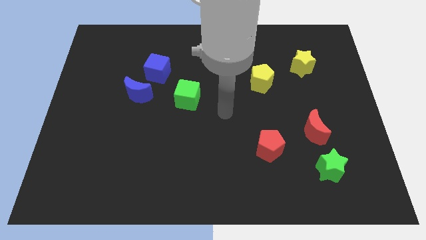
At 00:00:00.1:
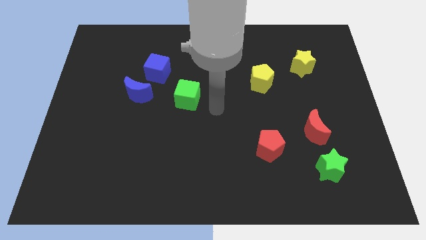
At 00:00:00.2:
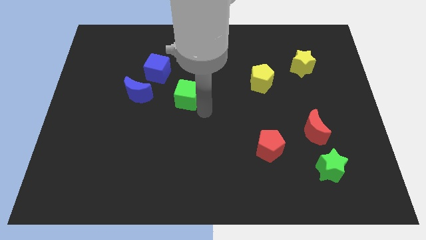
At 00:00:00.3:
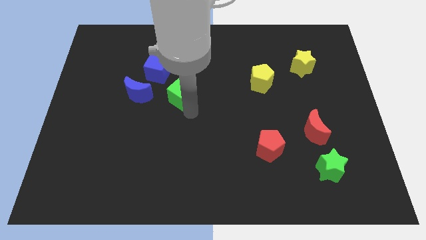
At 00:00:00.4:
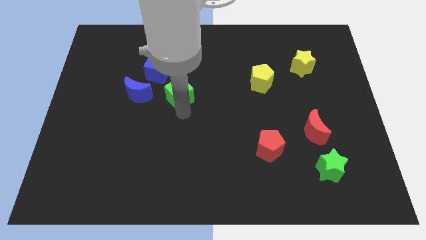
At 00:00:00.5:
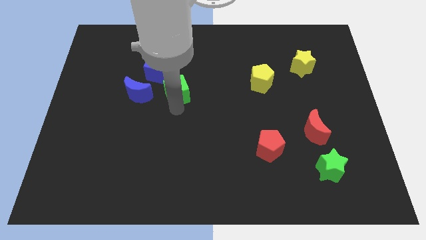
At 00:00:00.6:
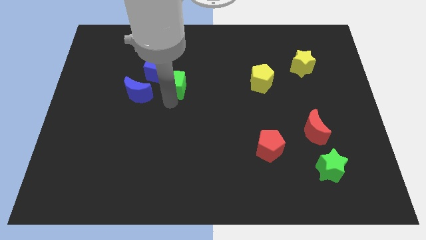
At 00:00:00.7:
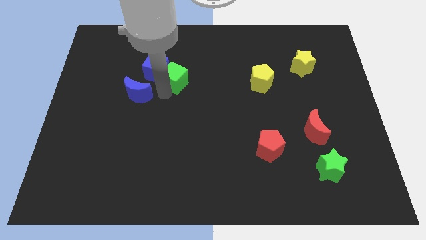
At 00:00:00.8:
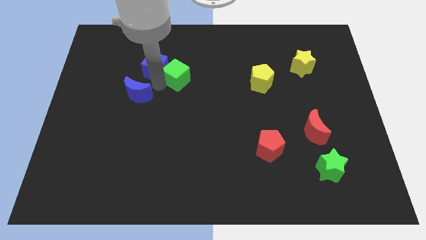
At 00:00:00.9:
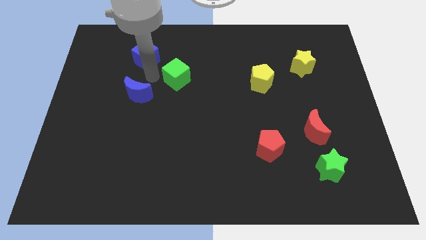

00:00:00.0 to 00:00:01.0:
move the blue moon away from the blue cube

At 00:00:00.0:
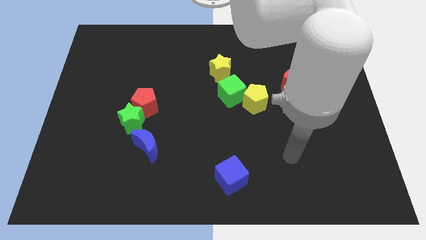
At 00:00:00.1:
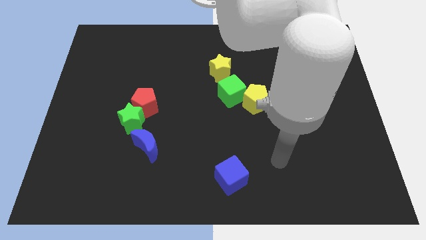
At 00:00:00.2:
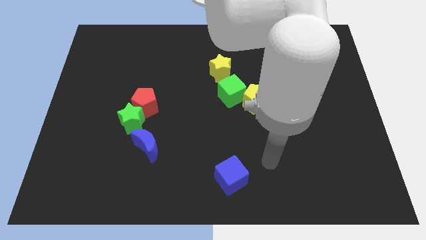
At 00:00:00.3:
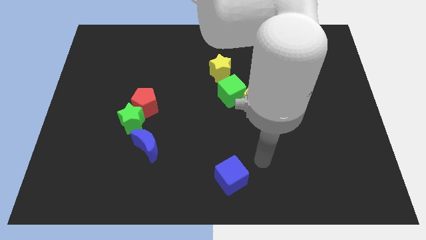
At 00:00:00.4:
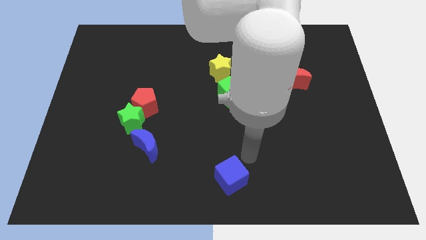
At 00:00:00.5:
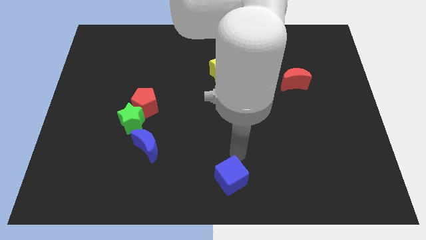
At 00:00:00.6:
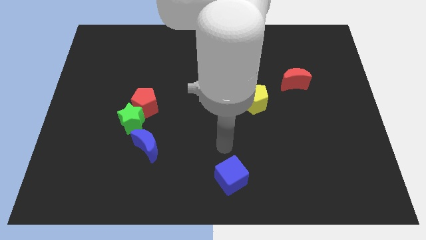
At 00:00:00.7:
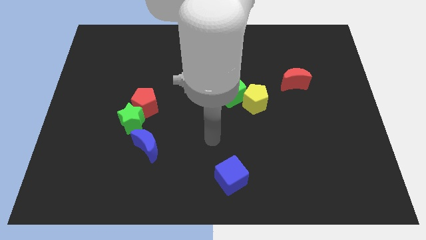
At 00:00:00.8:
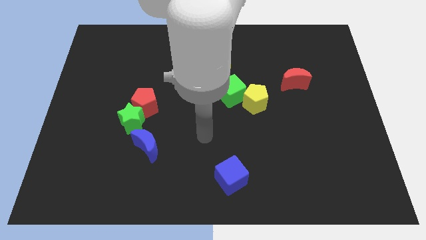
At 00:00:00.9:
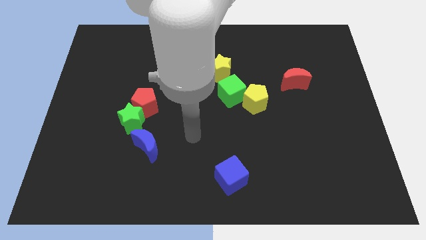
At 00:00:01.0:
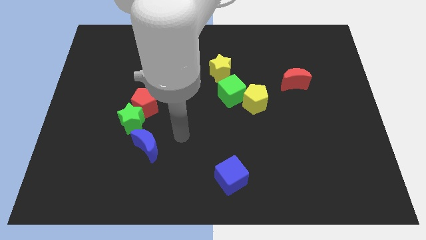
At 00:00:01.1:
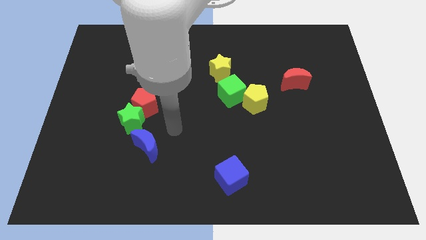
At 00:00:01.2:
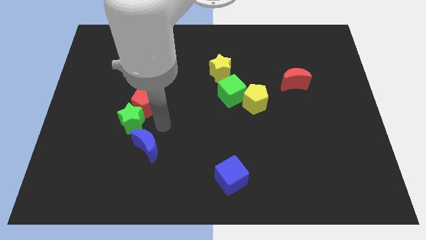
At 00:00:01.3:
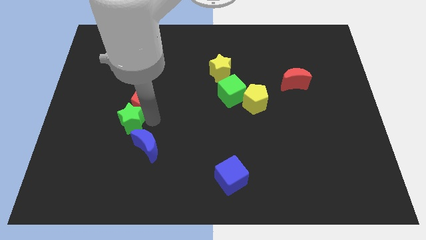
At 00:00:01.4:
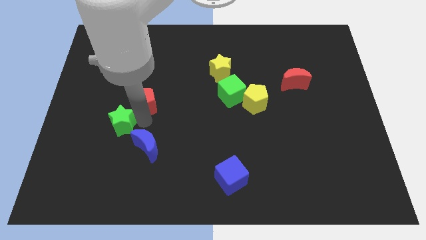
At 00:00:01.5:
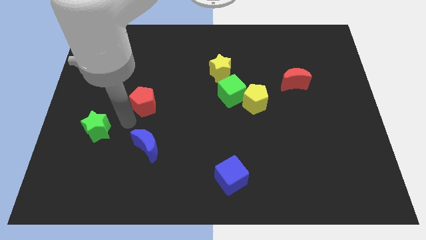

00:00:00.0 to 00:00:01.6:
move the red pentagon away from the green star

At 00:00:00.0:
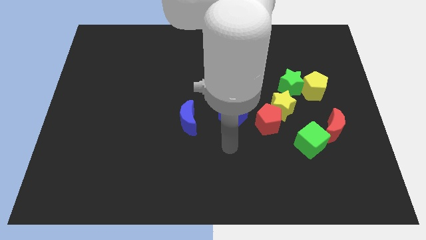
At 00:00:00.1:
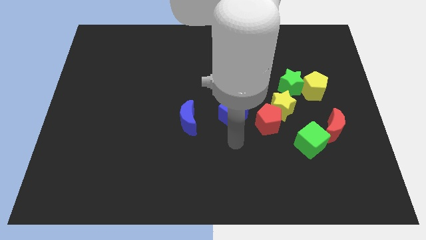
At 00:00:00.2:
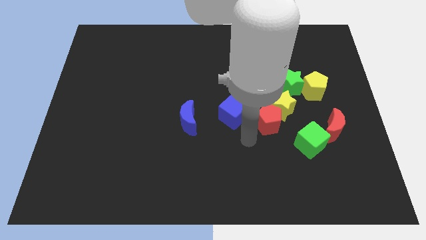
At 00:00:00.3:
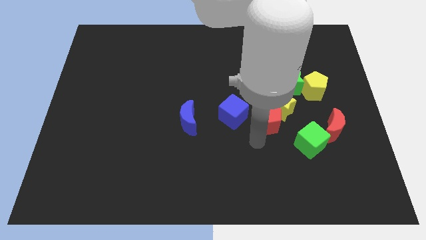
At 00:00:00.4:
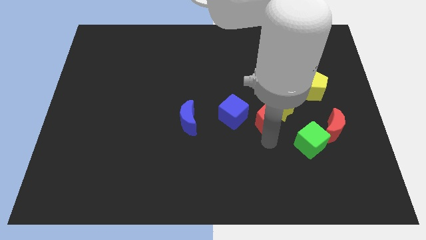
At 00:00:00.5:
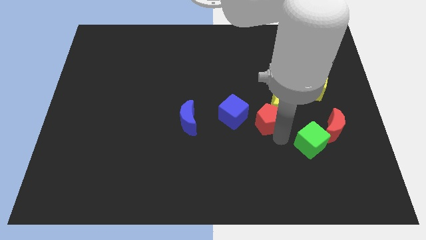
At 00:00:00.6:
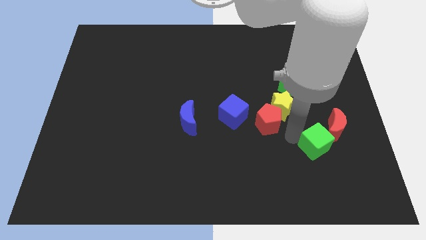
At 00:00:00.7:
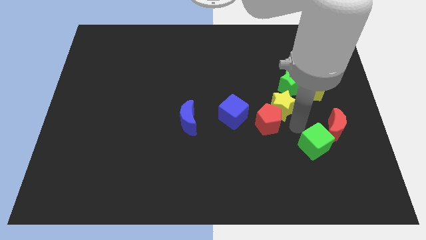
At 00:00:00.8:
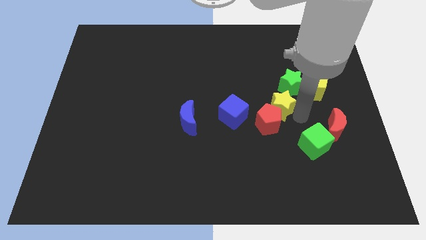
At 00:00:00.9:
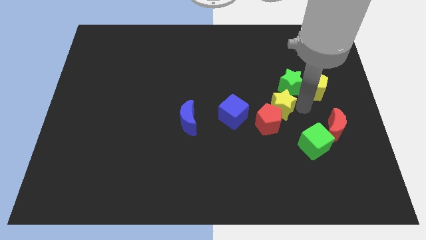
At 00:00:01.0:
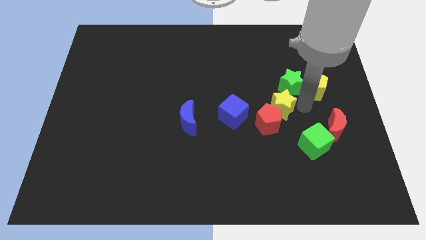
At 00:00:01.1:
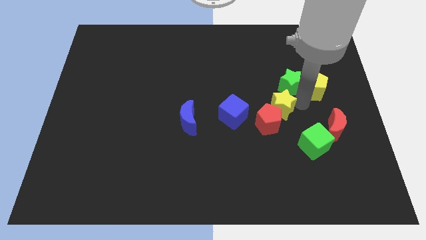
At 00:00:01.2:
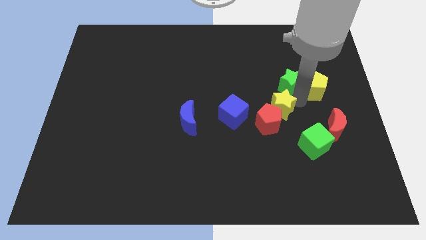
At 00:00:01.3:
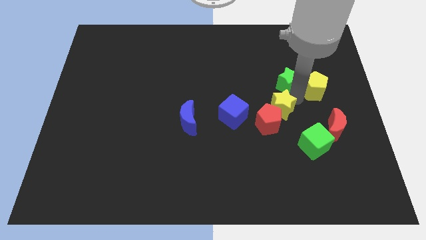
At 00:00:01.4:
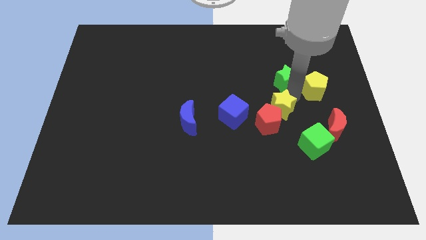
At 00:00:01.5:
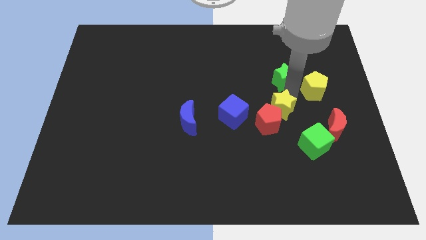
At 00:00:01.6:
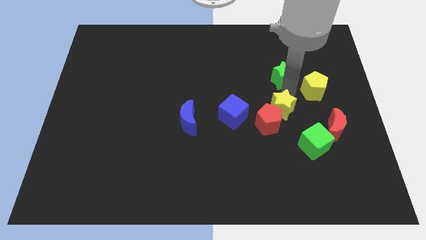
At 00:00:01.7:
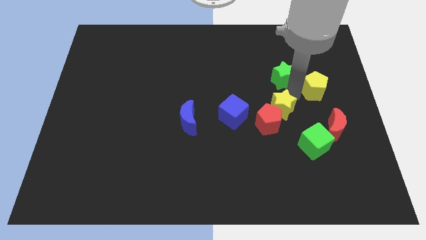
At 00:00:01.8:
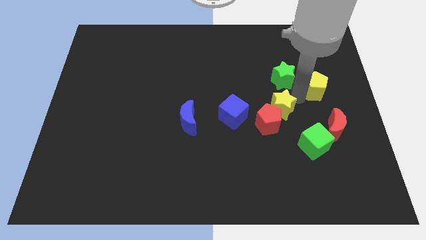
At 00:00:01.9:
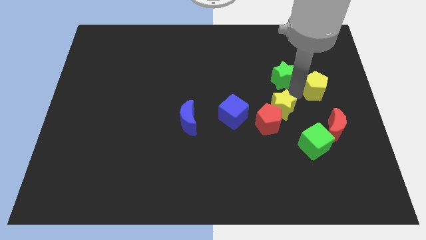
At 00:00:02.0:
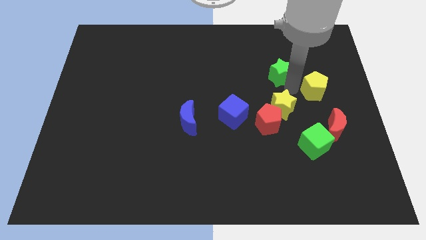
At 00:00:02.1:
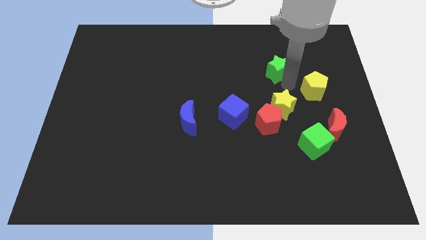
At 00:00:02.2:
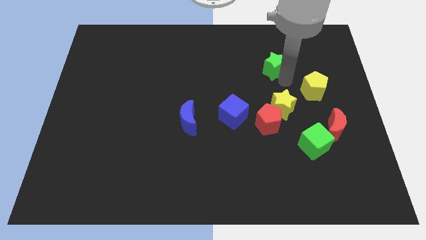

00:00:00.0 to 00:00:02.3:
separate the green star from the yellow pentagon and yellow star

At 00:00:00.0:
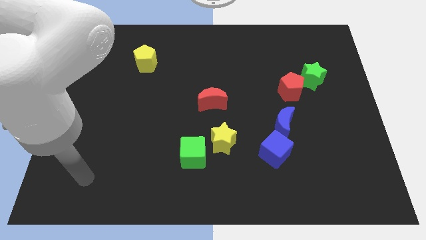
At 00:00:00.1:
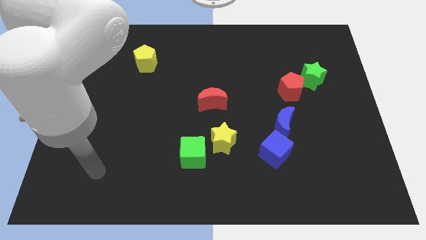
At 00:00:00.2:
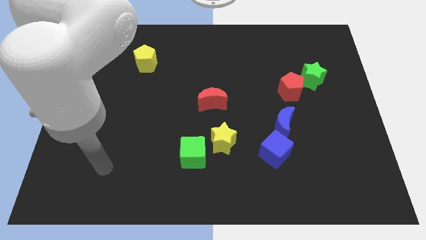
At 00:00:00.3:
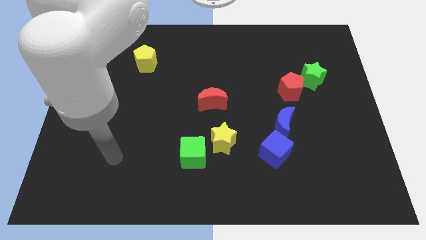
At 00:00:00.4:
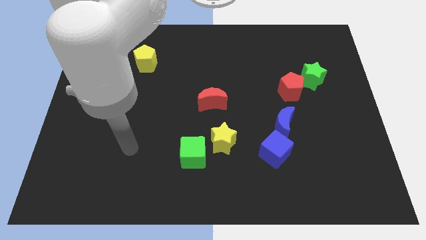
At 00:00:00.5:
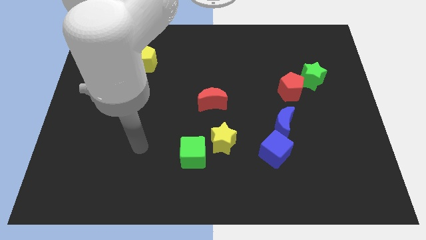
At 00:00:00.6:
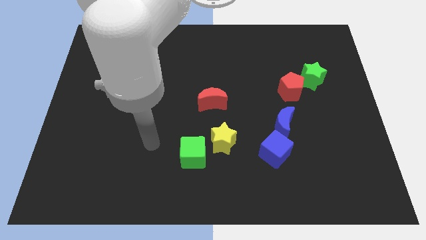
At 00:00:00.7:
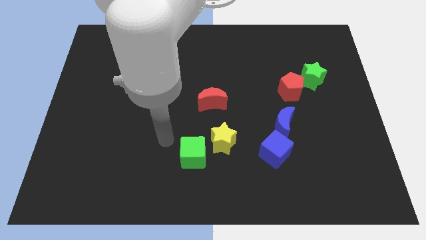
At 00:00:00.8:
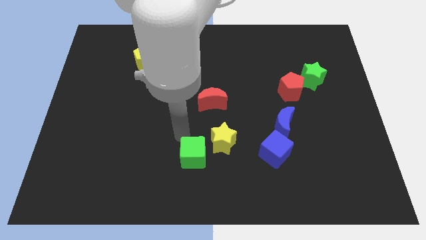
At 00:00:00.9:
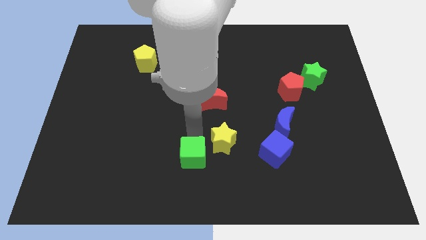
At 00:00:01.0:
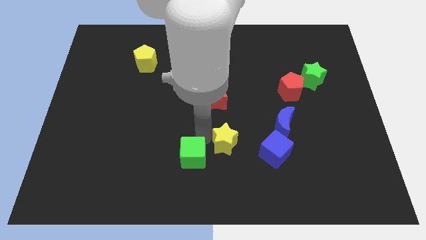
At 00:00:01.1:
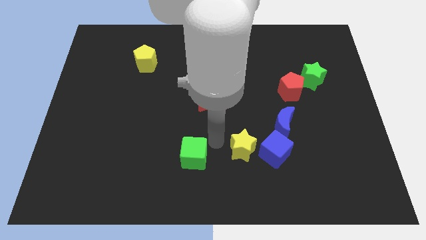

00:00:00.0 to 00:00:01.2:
move the green cube away from the yellow star

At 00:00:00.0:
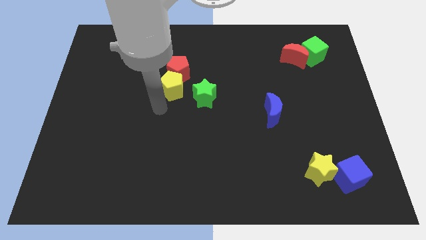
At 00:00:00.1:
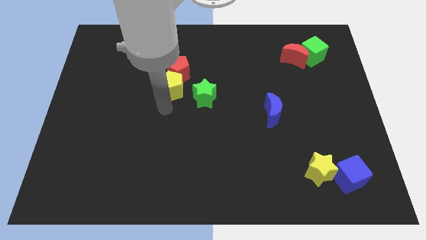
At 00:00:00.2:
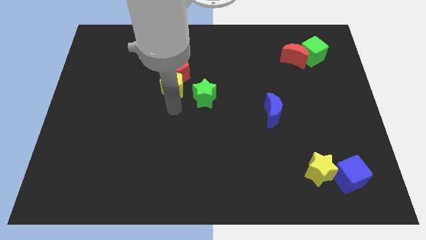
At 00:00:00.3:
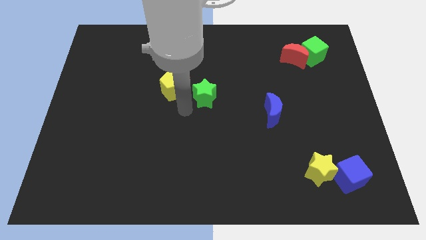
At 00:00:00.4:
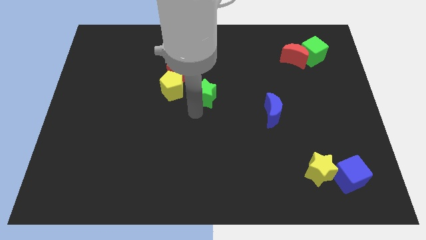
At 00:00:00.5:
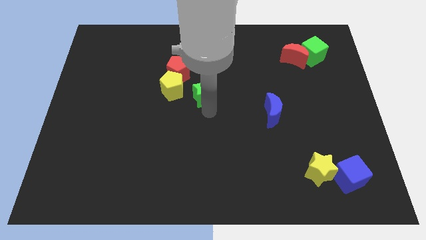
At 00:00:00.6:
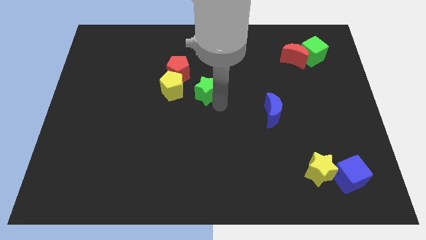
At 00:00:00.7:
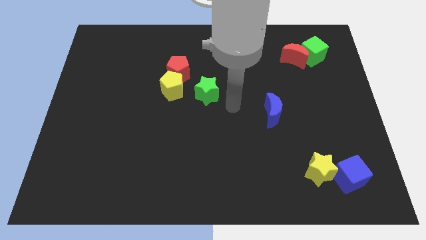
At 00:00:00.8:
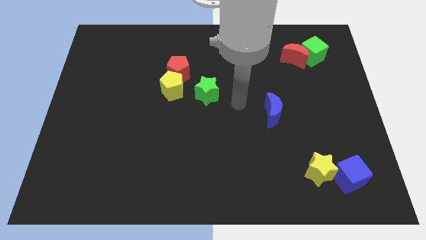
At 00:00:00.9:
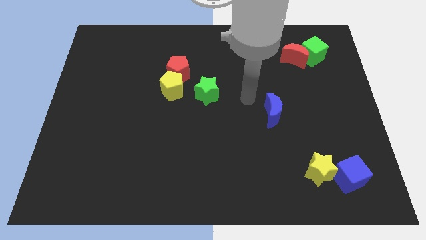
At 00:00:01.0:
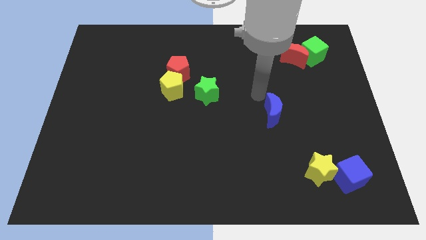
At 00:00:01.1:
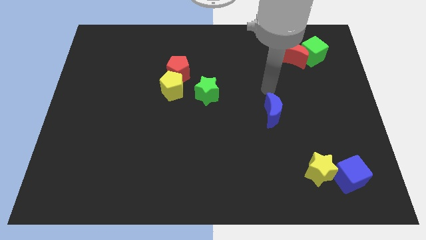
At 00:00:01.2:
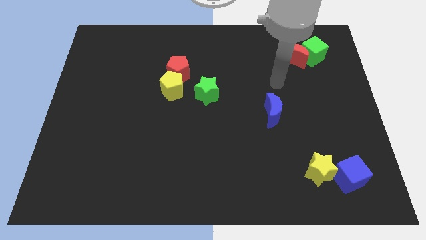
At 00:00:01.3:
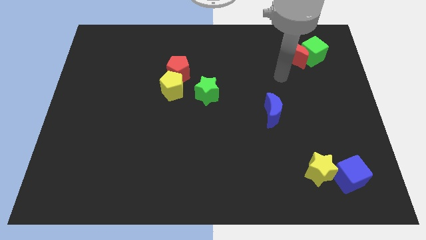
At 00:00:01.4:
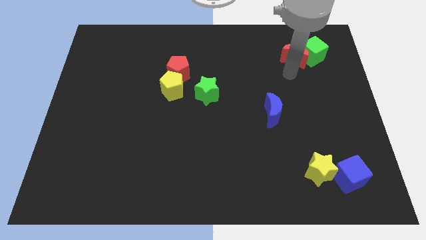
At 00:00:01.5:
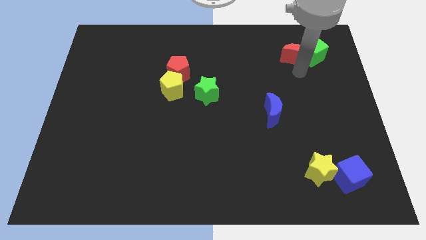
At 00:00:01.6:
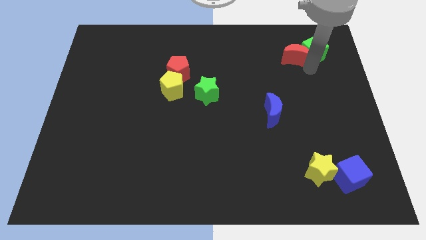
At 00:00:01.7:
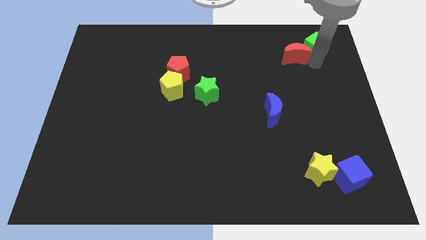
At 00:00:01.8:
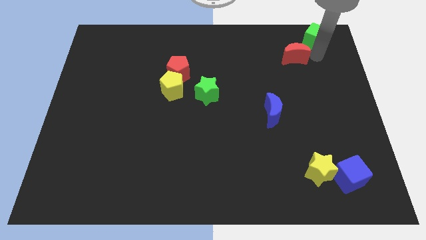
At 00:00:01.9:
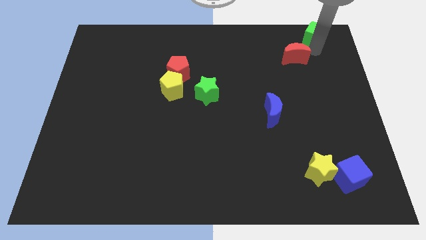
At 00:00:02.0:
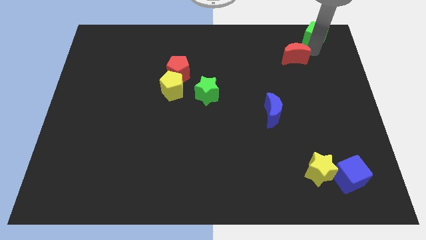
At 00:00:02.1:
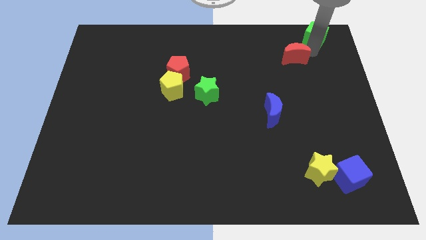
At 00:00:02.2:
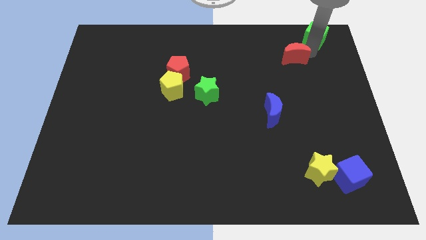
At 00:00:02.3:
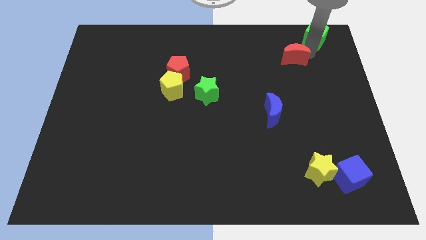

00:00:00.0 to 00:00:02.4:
separate the red moon from the green cube

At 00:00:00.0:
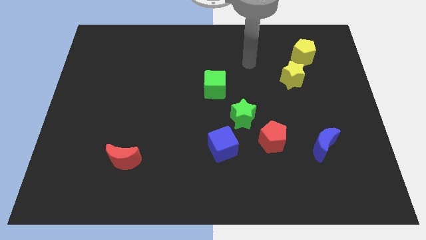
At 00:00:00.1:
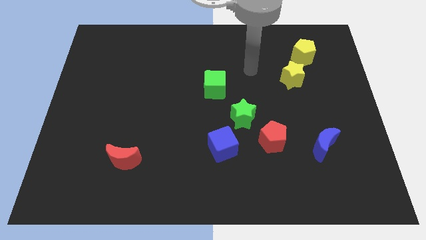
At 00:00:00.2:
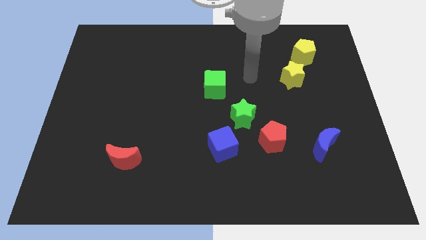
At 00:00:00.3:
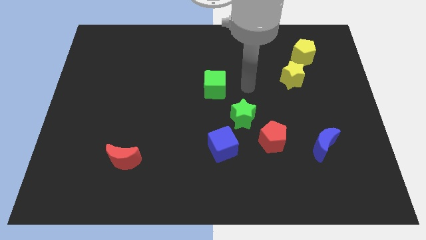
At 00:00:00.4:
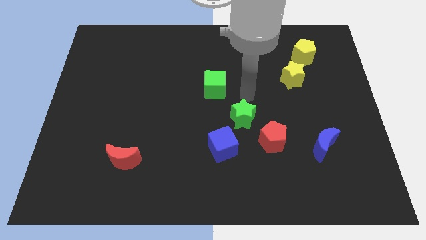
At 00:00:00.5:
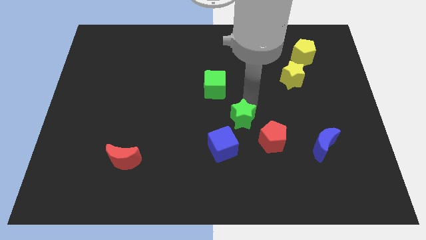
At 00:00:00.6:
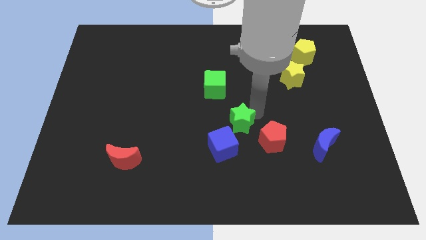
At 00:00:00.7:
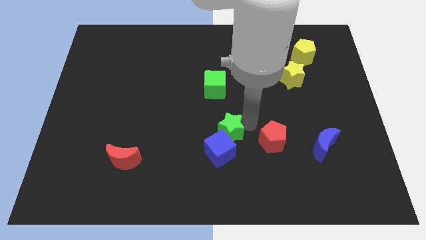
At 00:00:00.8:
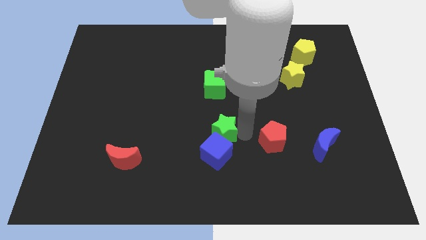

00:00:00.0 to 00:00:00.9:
pull the red pentagon apart from the green star
